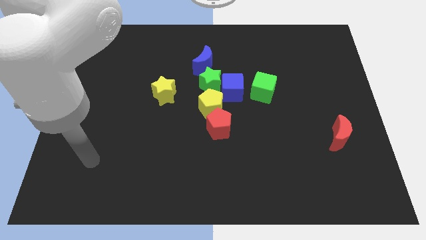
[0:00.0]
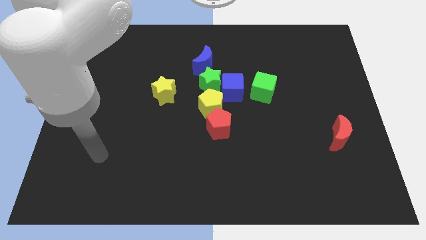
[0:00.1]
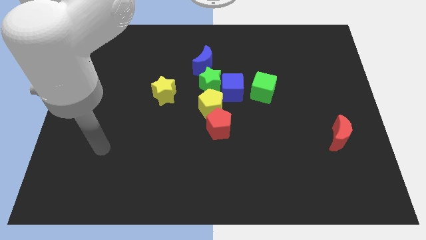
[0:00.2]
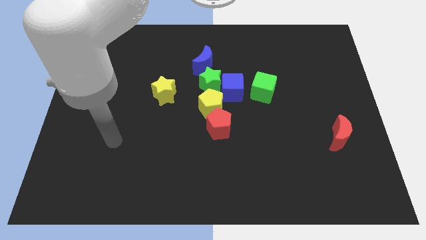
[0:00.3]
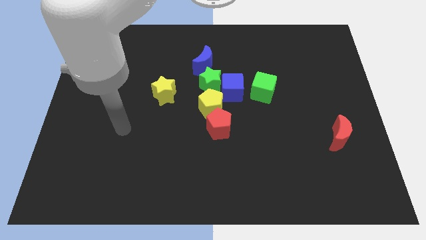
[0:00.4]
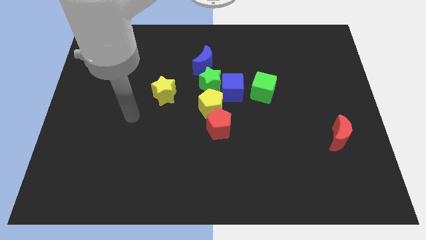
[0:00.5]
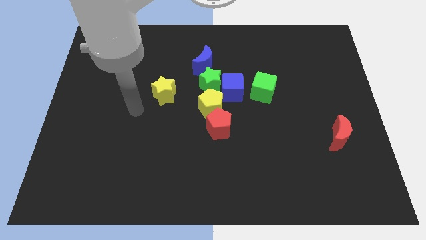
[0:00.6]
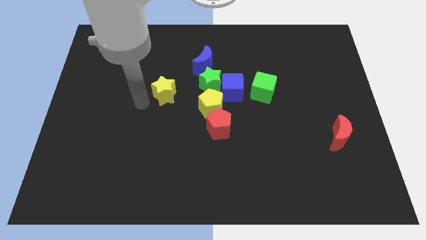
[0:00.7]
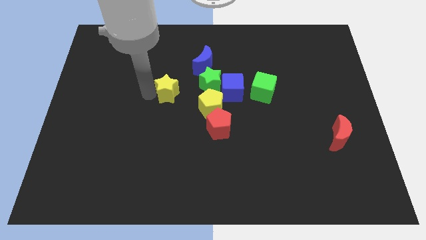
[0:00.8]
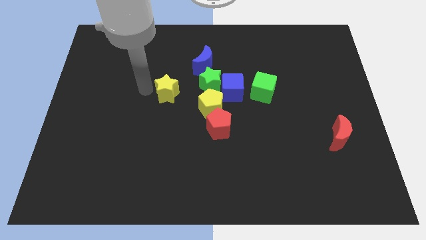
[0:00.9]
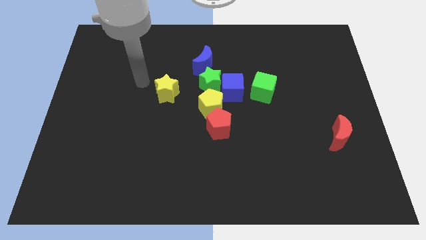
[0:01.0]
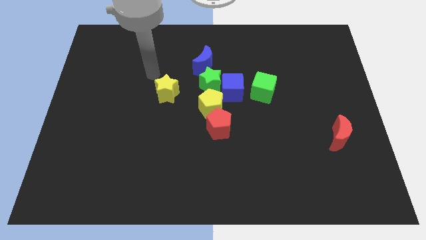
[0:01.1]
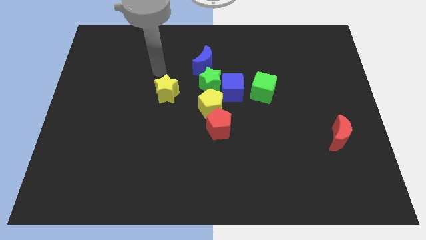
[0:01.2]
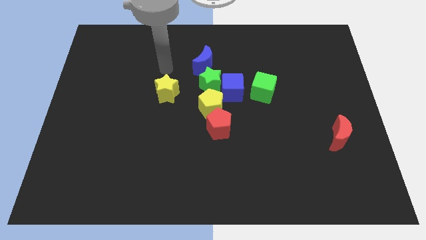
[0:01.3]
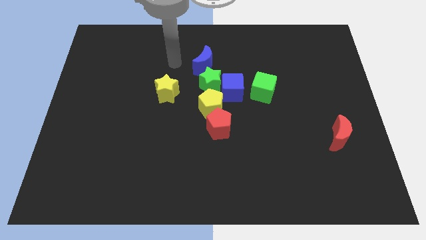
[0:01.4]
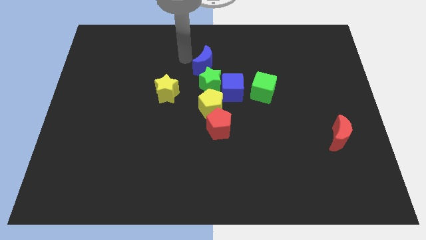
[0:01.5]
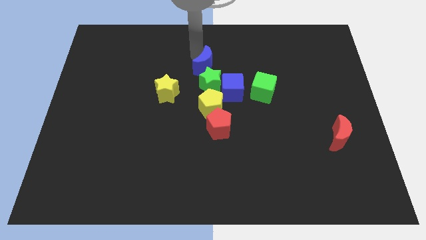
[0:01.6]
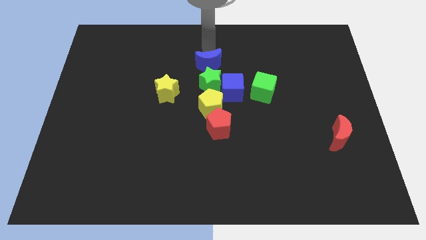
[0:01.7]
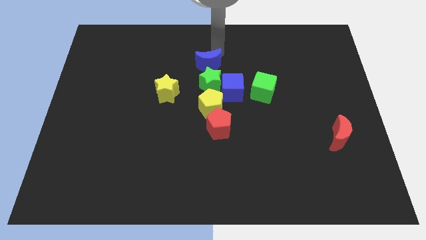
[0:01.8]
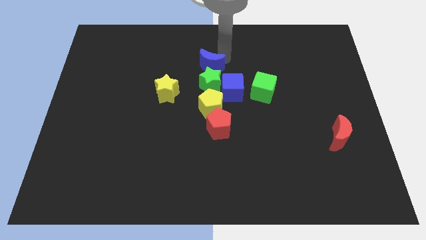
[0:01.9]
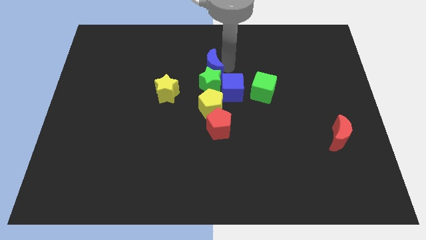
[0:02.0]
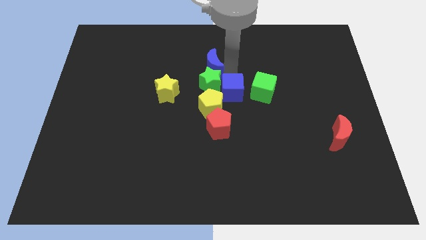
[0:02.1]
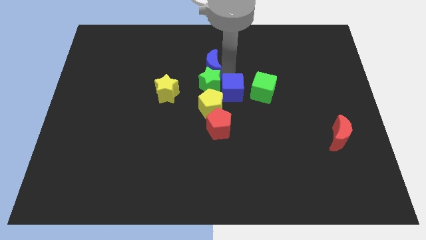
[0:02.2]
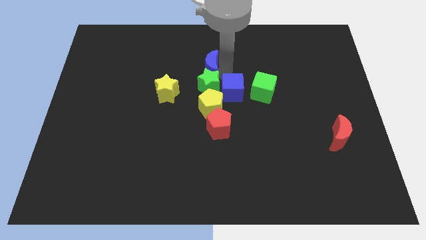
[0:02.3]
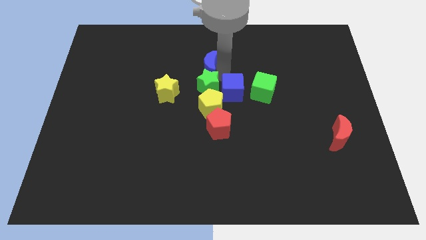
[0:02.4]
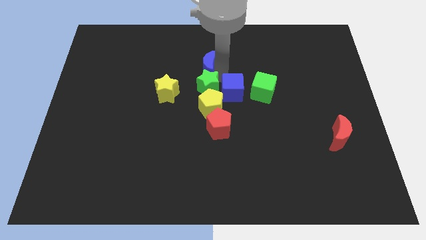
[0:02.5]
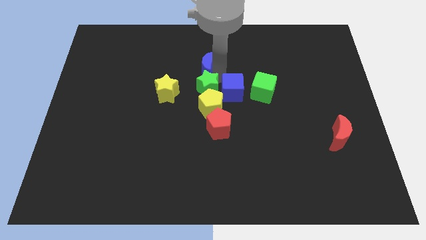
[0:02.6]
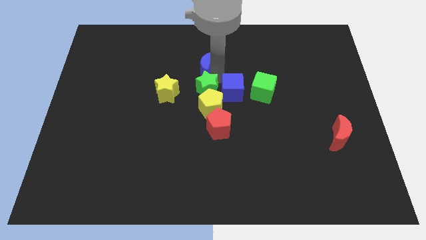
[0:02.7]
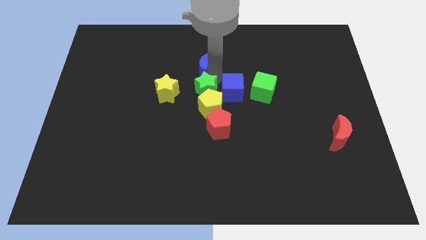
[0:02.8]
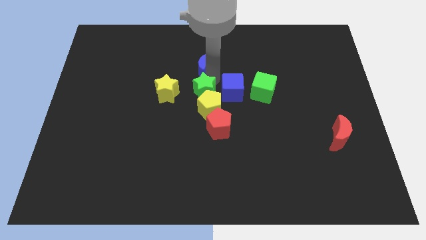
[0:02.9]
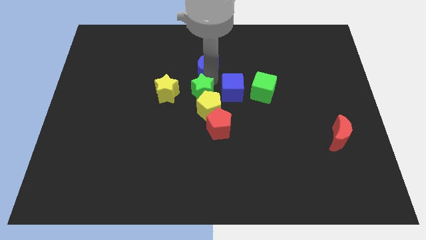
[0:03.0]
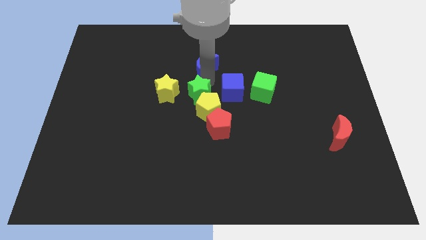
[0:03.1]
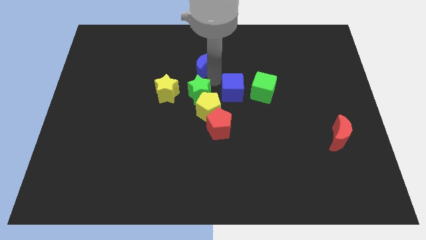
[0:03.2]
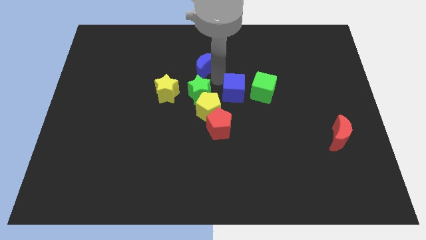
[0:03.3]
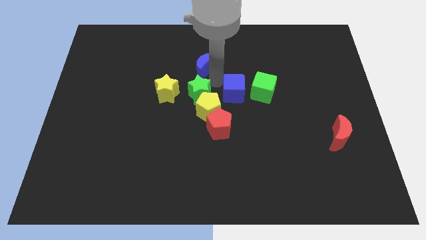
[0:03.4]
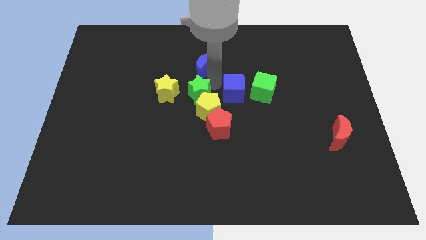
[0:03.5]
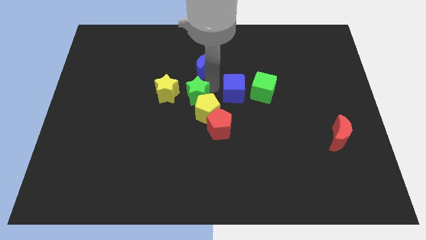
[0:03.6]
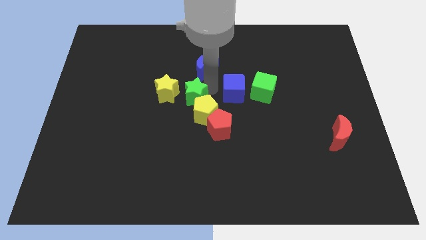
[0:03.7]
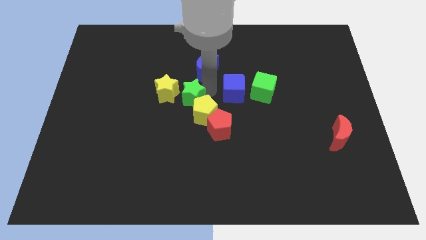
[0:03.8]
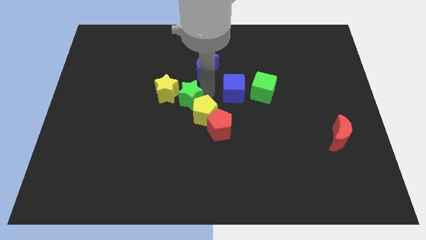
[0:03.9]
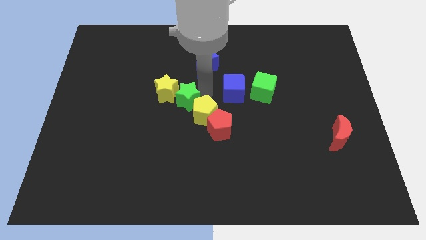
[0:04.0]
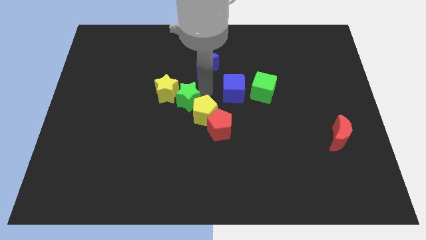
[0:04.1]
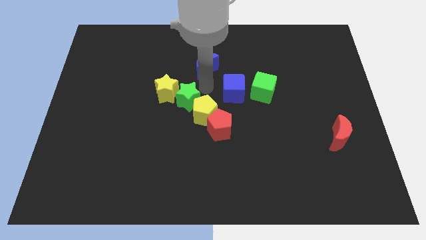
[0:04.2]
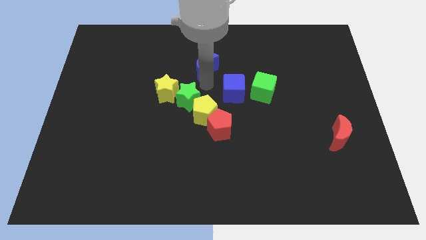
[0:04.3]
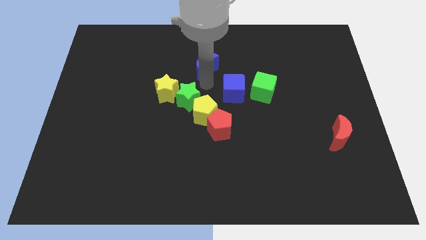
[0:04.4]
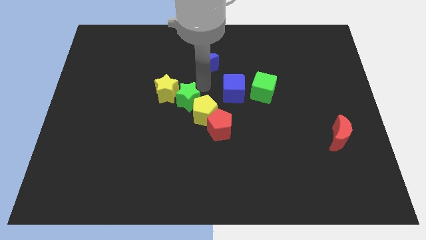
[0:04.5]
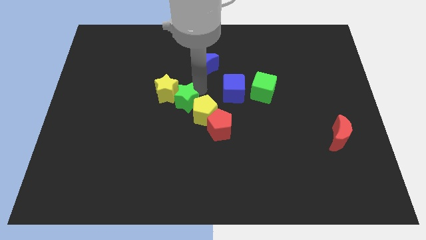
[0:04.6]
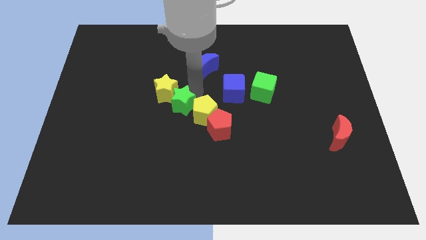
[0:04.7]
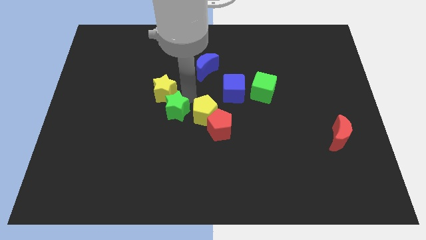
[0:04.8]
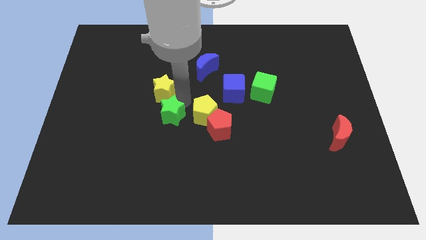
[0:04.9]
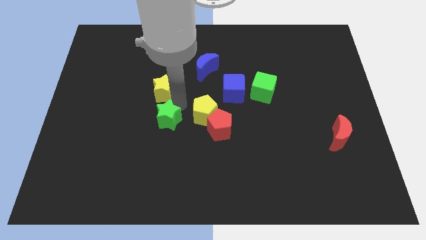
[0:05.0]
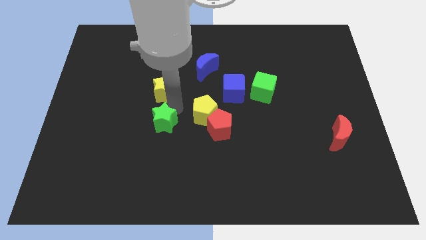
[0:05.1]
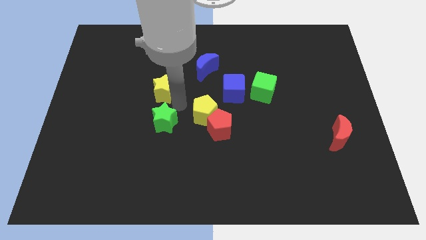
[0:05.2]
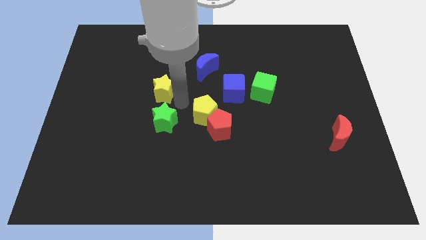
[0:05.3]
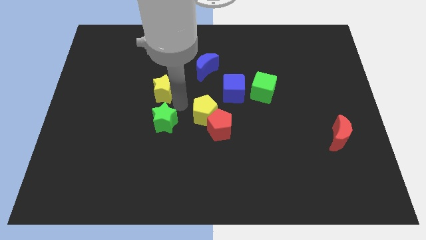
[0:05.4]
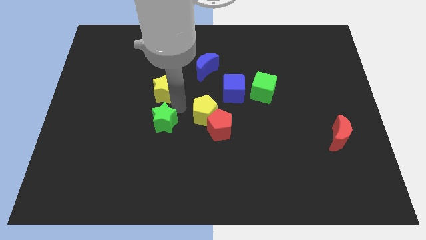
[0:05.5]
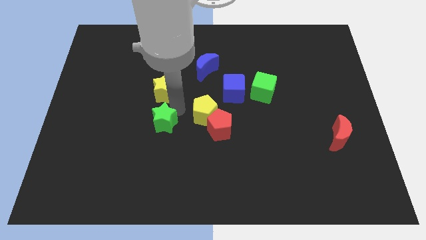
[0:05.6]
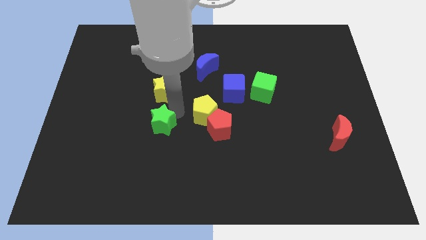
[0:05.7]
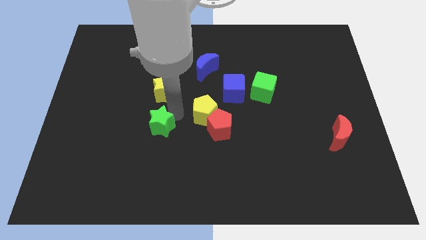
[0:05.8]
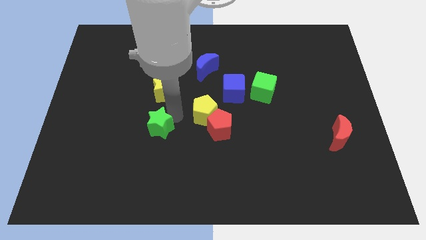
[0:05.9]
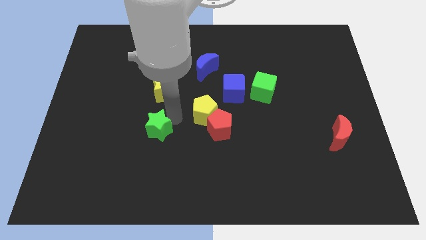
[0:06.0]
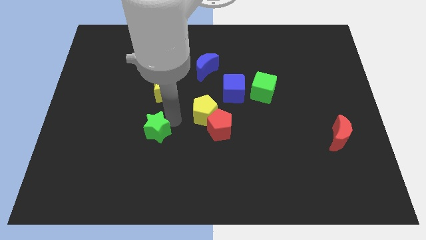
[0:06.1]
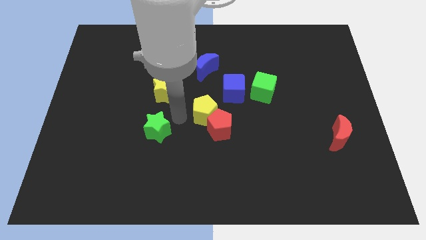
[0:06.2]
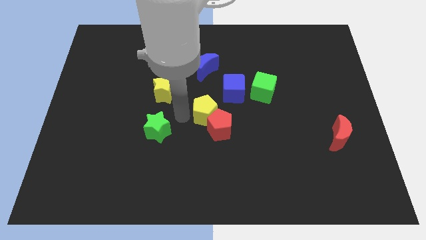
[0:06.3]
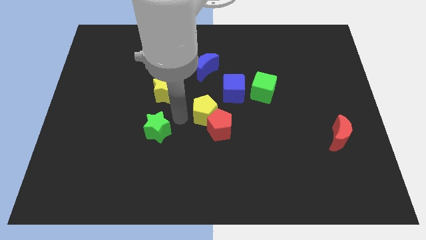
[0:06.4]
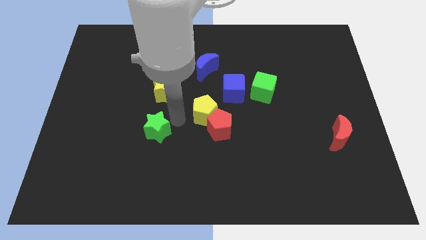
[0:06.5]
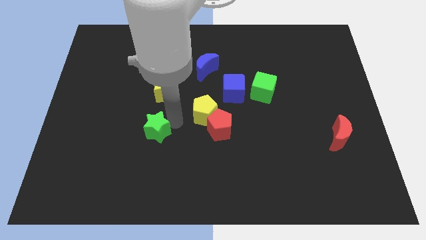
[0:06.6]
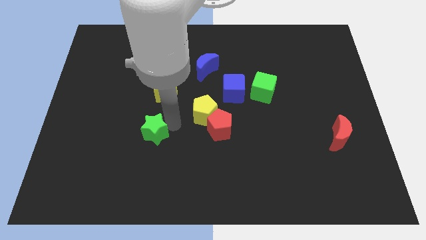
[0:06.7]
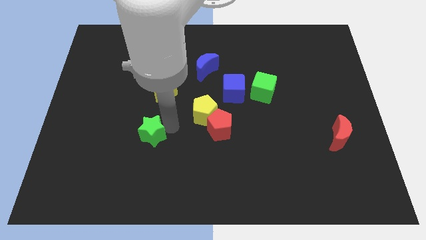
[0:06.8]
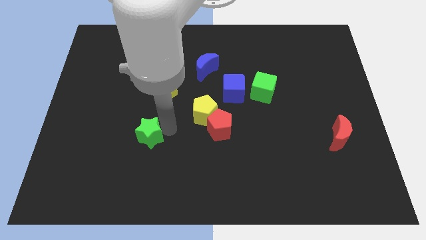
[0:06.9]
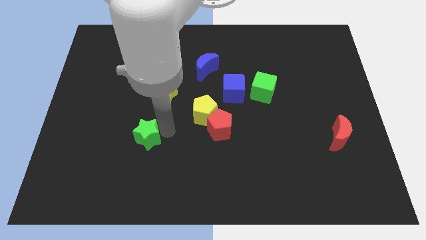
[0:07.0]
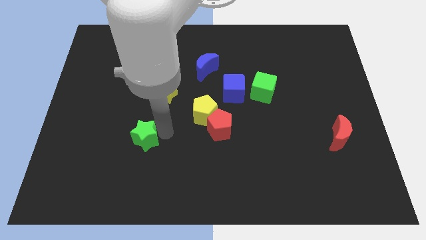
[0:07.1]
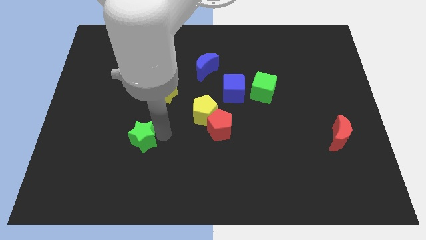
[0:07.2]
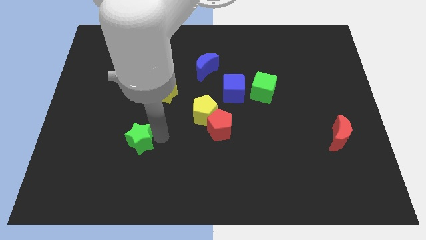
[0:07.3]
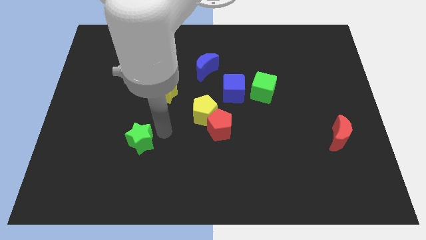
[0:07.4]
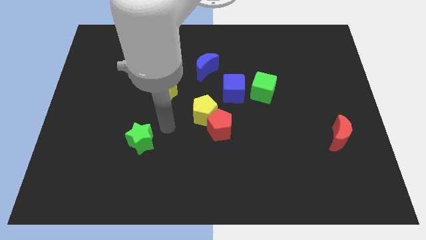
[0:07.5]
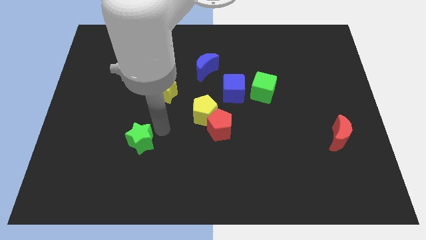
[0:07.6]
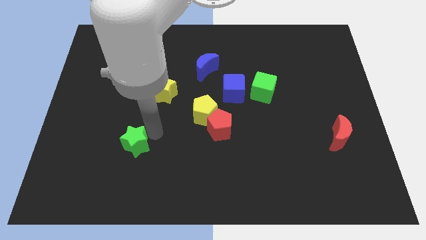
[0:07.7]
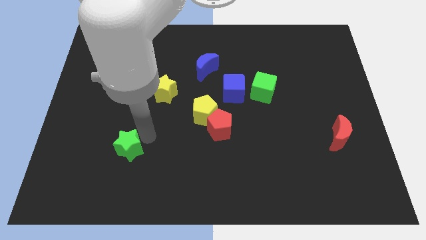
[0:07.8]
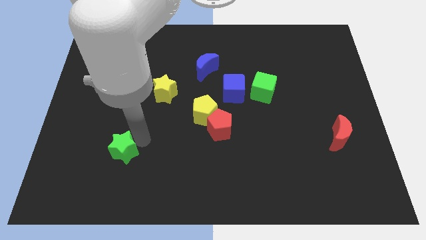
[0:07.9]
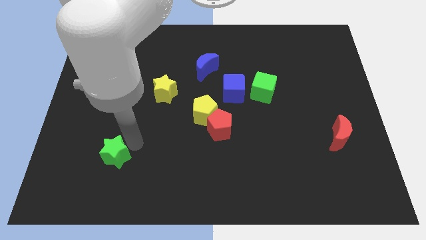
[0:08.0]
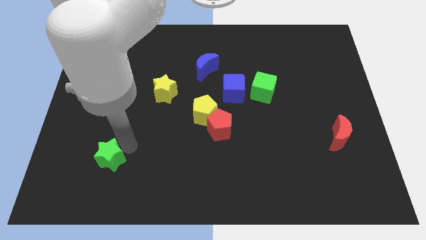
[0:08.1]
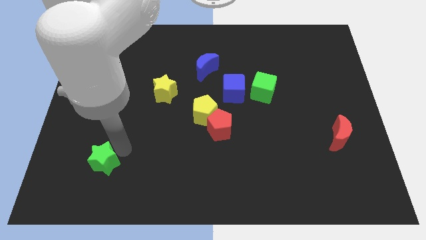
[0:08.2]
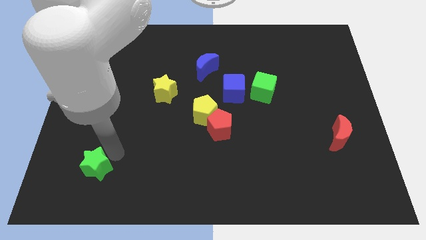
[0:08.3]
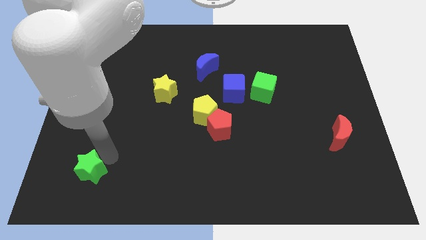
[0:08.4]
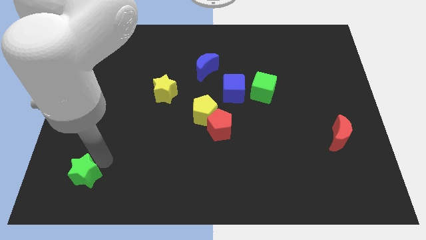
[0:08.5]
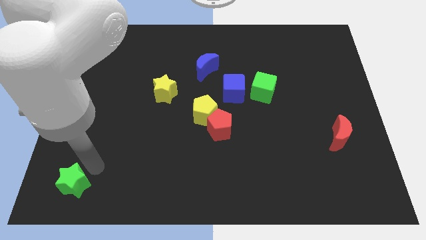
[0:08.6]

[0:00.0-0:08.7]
put the green star to the bottom left
